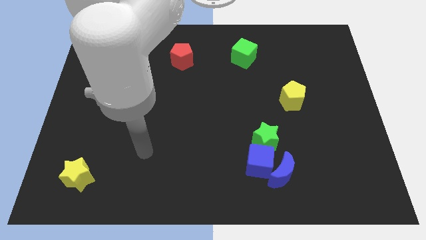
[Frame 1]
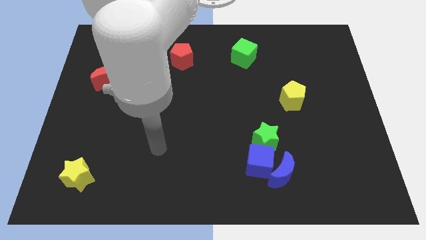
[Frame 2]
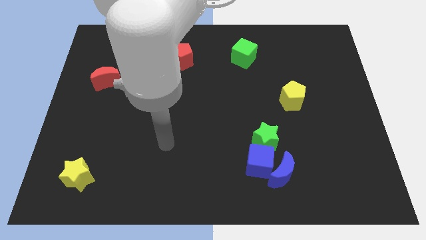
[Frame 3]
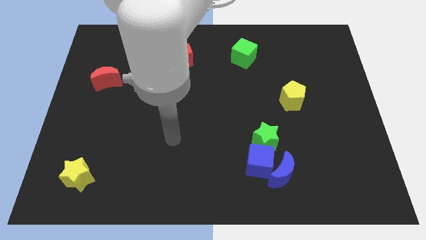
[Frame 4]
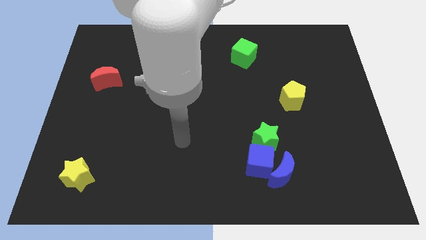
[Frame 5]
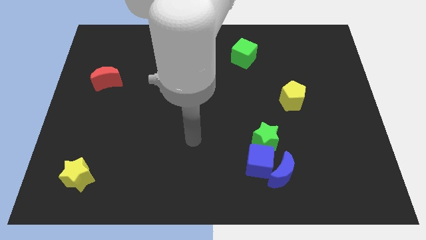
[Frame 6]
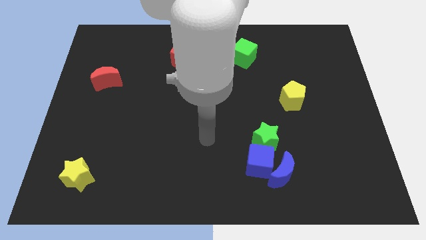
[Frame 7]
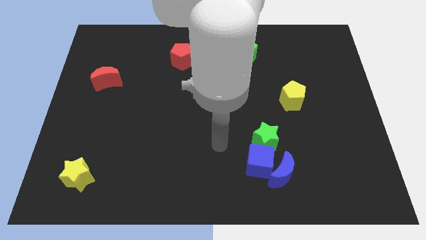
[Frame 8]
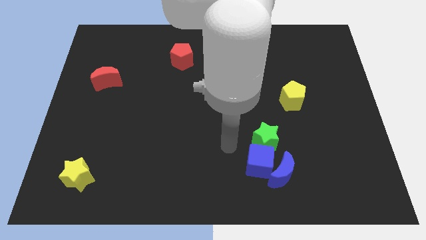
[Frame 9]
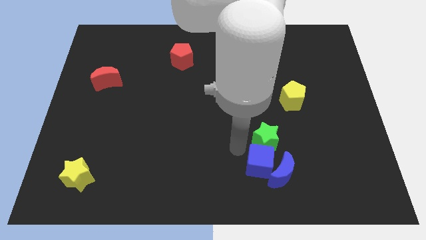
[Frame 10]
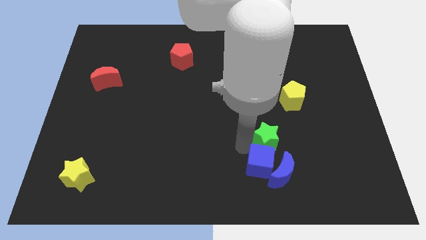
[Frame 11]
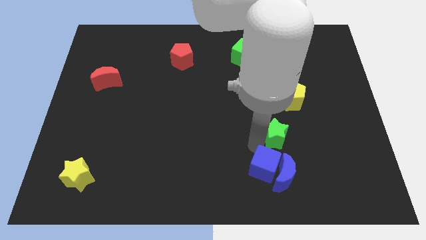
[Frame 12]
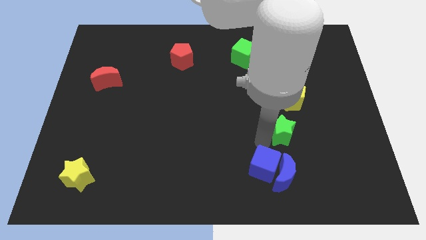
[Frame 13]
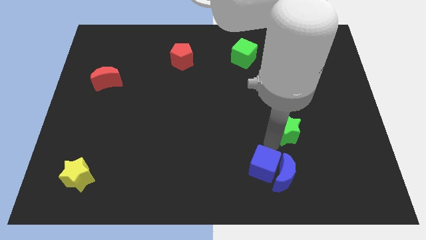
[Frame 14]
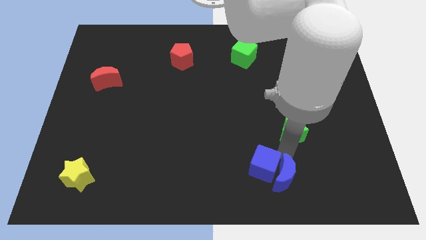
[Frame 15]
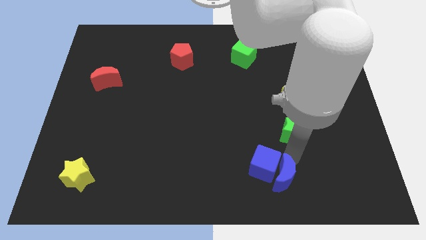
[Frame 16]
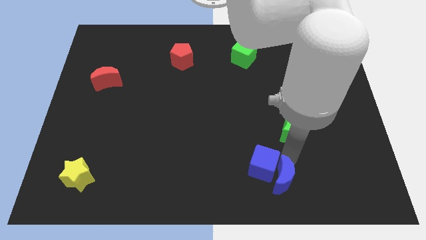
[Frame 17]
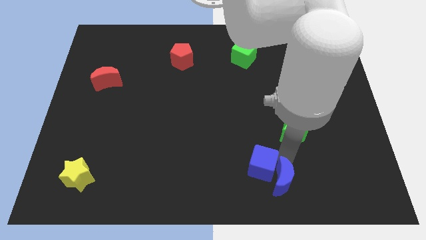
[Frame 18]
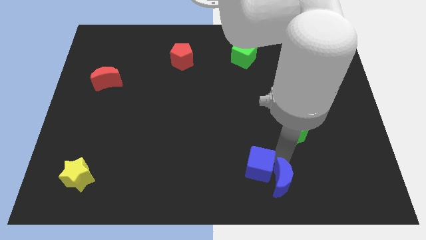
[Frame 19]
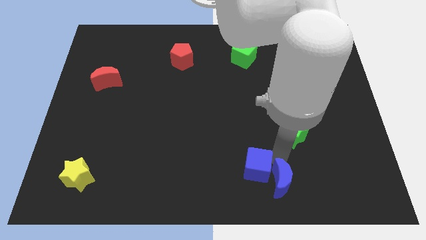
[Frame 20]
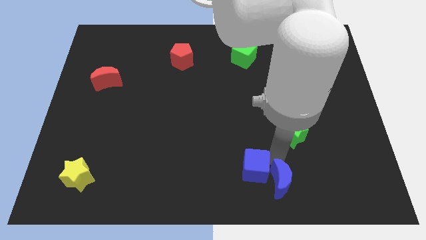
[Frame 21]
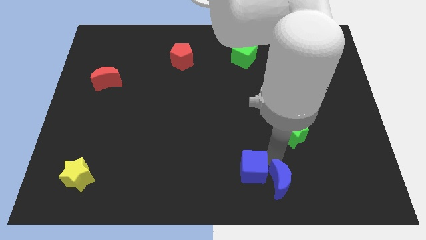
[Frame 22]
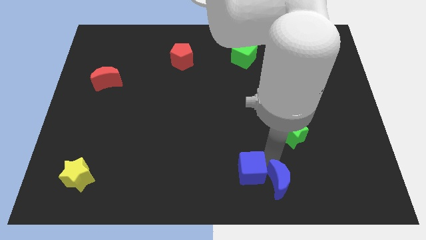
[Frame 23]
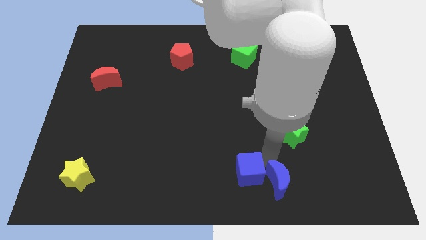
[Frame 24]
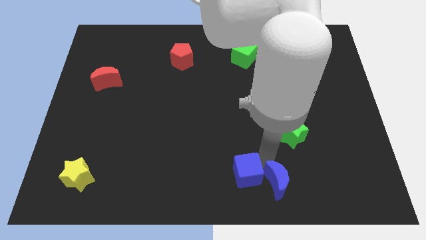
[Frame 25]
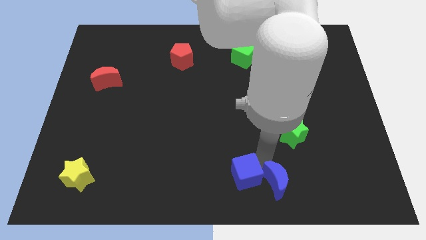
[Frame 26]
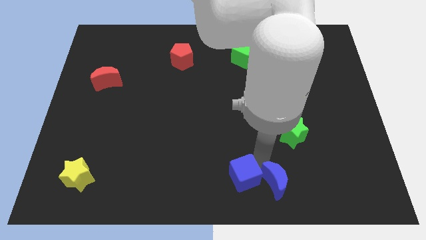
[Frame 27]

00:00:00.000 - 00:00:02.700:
pull the blue cube apart from the blue moon and green star

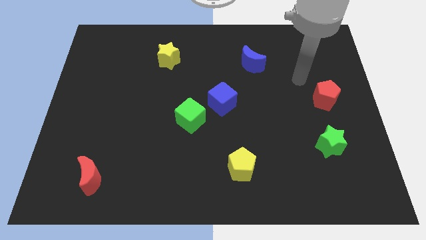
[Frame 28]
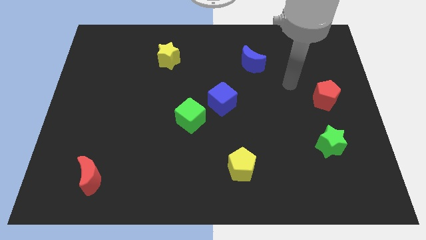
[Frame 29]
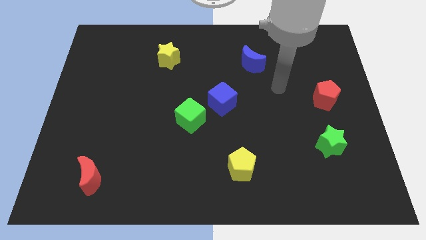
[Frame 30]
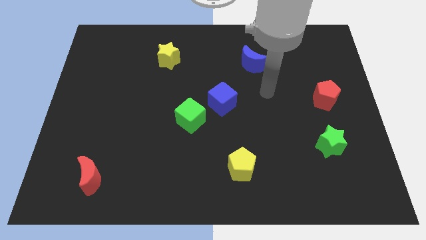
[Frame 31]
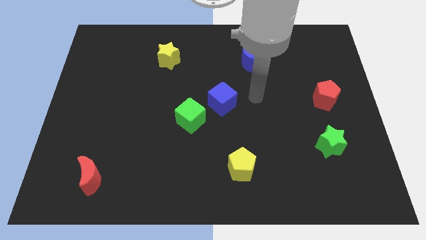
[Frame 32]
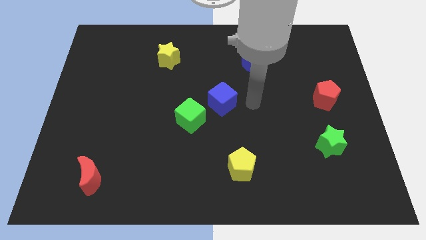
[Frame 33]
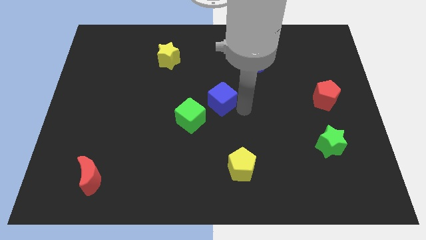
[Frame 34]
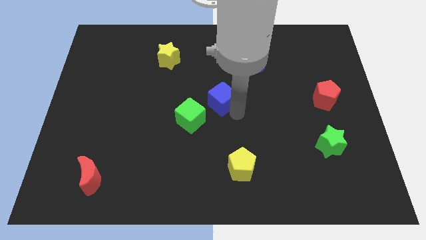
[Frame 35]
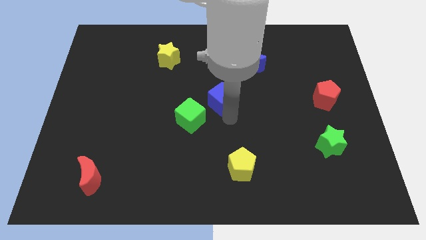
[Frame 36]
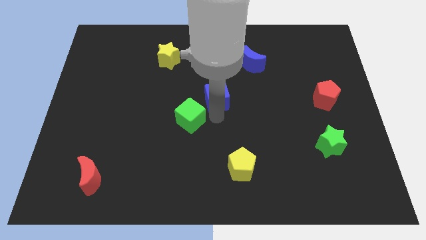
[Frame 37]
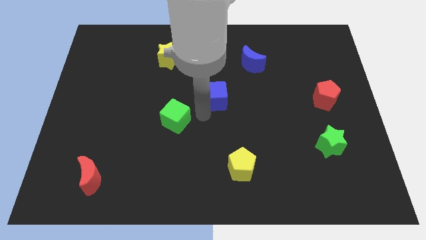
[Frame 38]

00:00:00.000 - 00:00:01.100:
pull the blue cube apart from the green cube

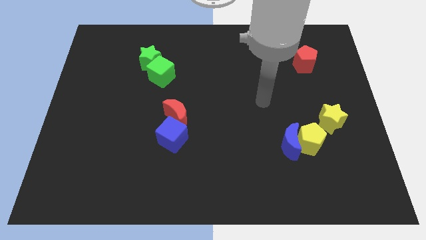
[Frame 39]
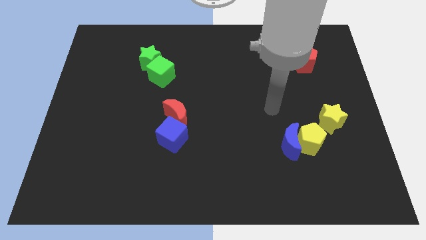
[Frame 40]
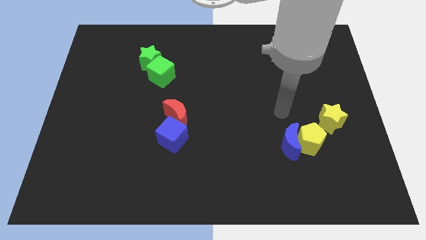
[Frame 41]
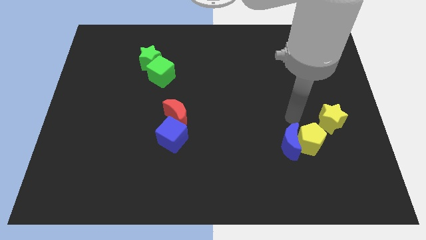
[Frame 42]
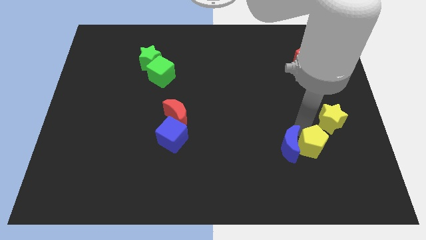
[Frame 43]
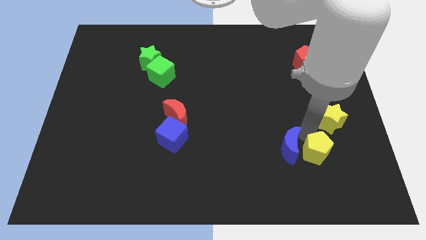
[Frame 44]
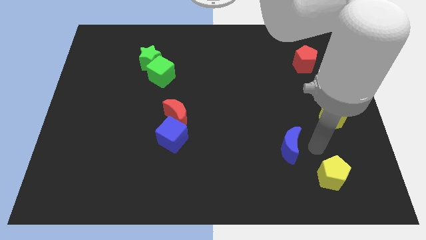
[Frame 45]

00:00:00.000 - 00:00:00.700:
pull the blue moon apart from the yellow pentagon

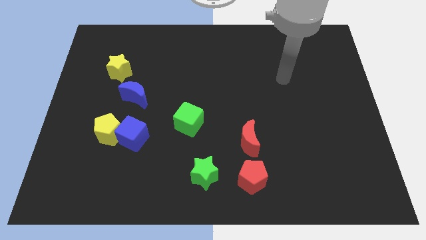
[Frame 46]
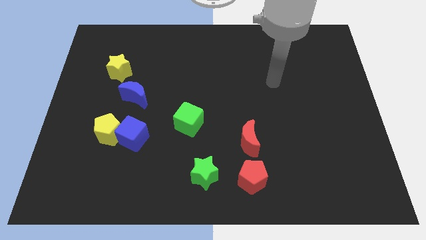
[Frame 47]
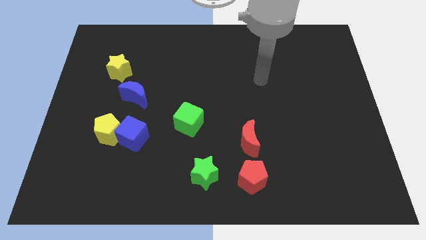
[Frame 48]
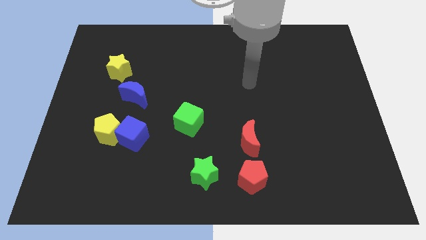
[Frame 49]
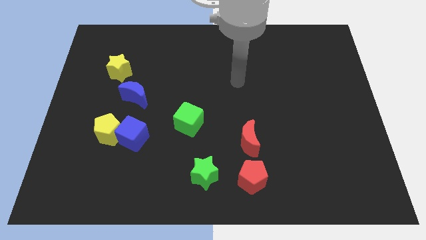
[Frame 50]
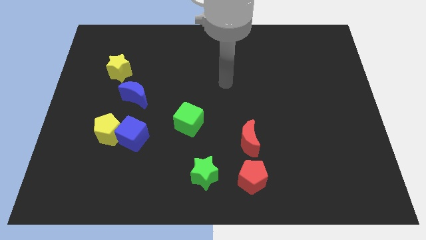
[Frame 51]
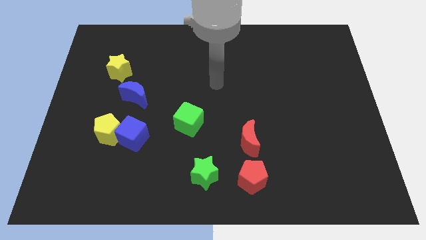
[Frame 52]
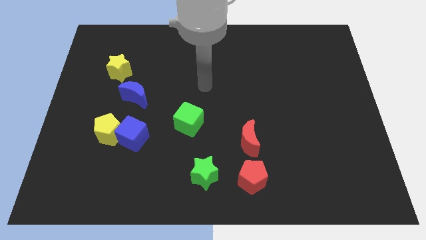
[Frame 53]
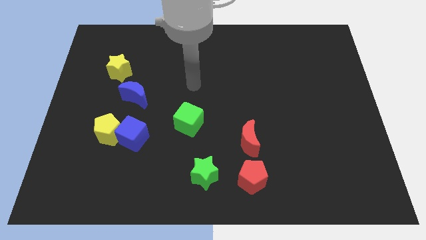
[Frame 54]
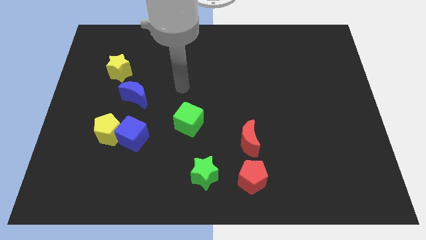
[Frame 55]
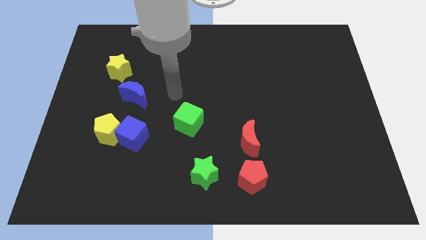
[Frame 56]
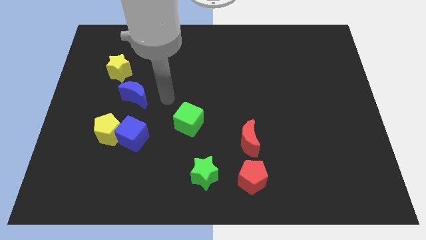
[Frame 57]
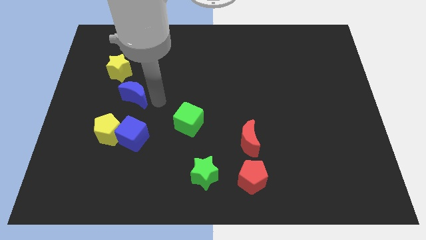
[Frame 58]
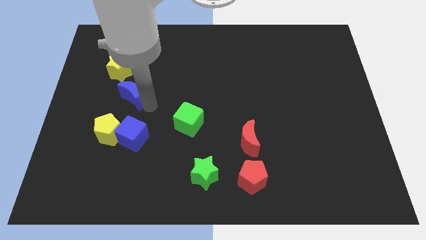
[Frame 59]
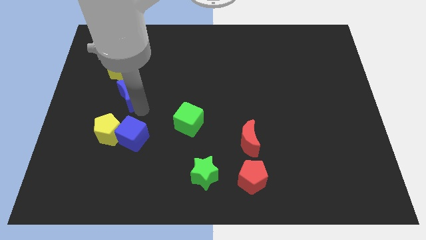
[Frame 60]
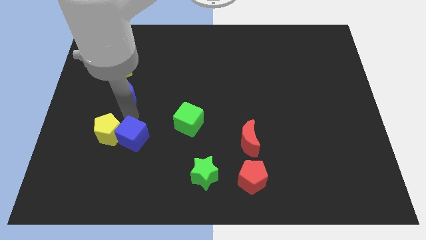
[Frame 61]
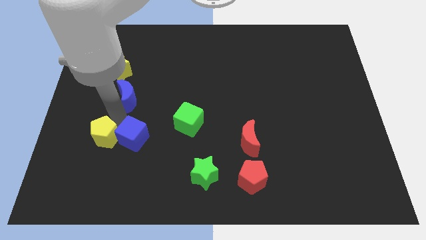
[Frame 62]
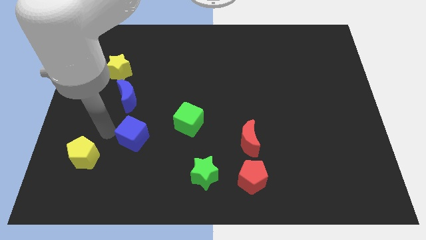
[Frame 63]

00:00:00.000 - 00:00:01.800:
separate the blue cube from the yellow pentagon

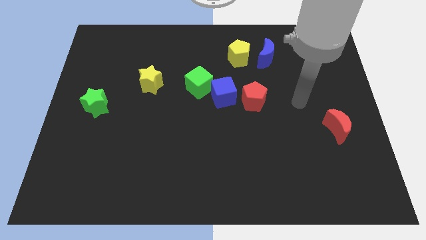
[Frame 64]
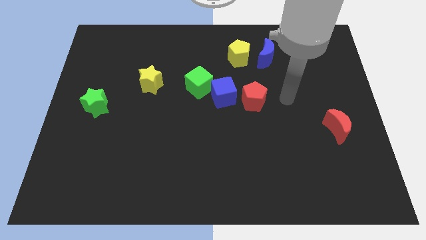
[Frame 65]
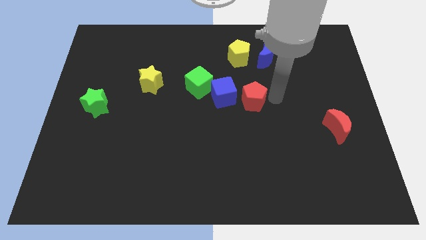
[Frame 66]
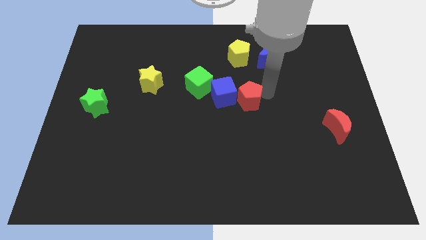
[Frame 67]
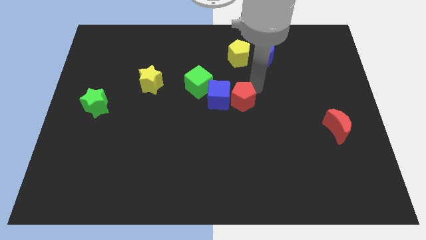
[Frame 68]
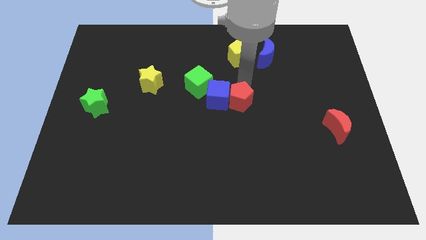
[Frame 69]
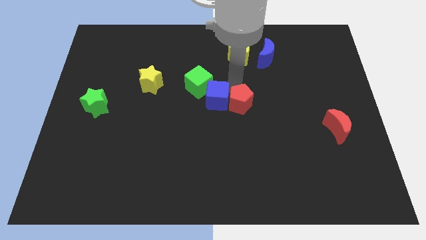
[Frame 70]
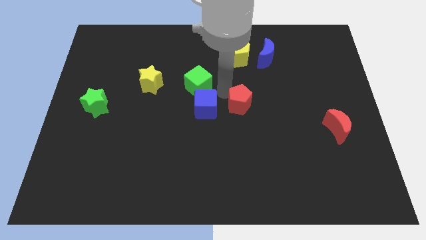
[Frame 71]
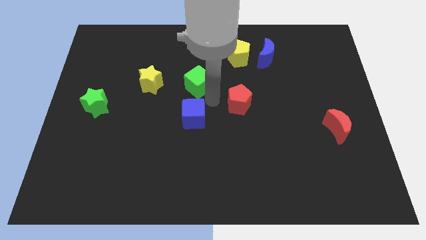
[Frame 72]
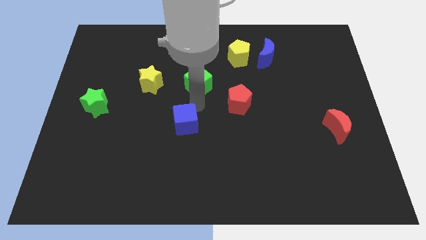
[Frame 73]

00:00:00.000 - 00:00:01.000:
separate the green cube from the blue cube

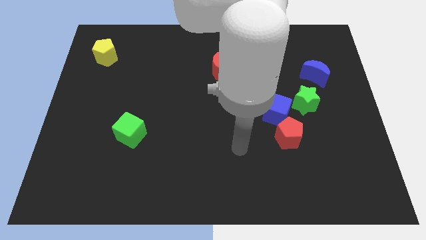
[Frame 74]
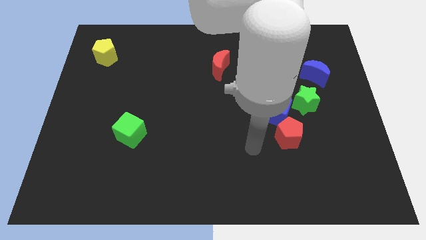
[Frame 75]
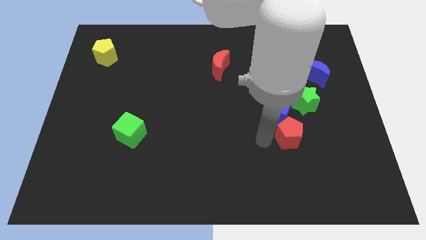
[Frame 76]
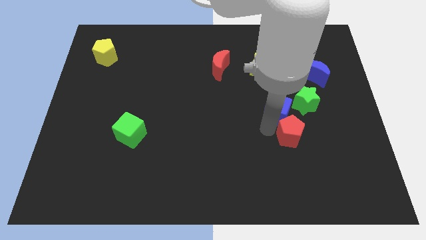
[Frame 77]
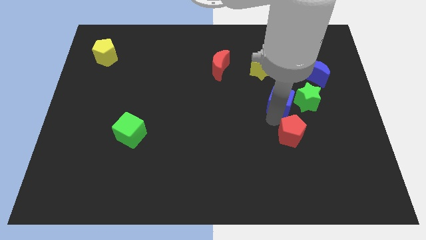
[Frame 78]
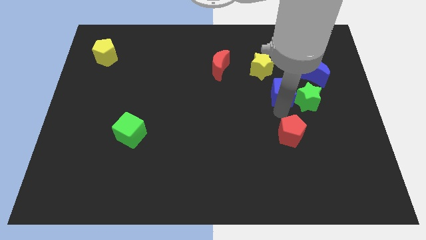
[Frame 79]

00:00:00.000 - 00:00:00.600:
pull the red pentagon apart from the blue cube

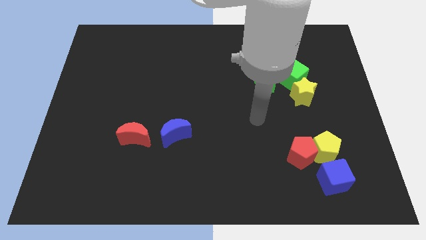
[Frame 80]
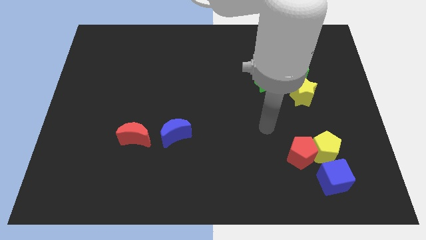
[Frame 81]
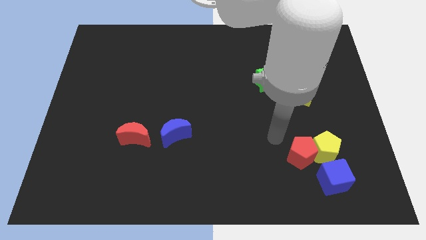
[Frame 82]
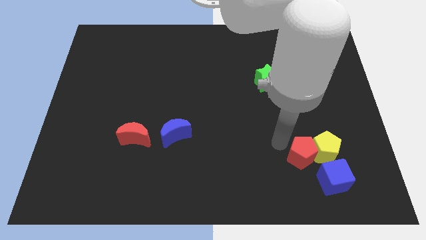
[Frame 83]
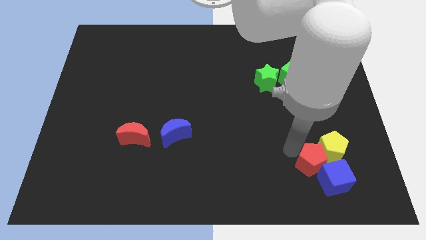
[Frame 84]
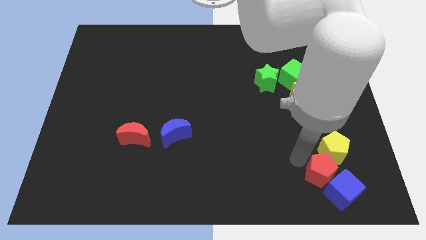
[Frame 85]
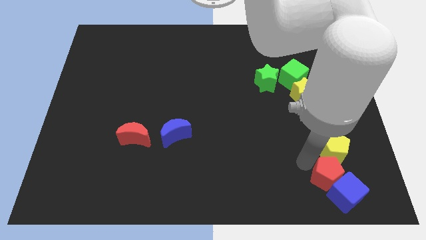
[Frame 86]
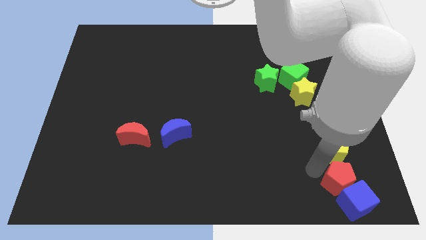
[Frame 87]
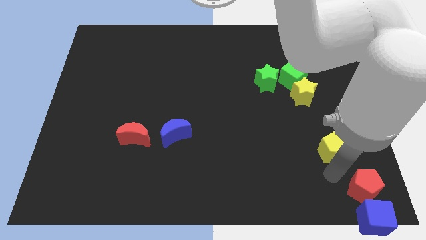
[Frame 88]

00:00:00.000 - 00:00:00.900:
move the yellow pentagon away from the red pentagon and blue cube

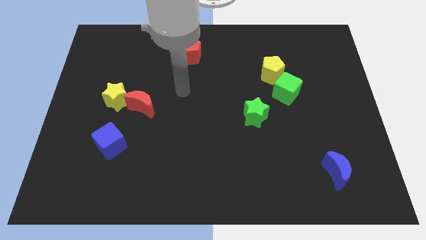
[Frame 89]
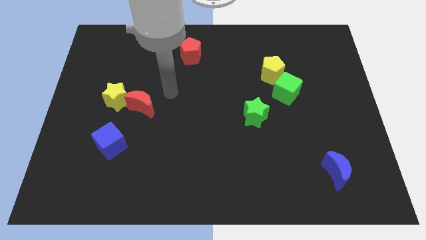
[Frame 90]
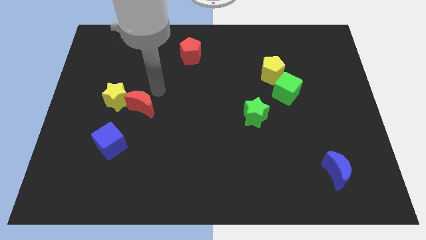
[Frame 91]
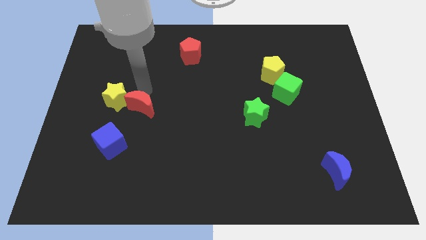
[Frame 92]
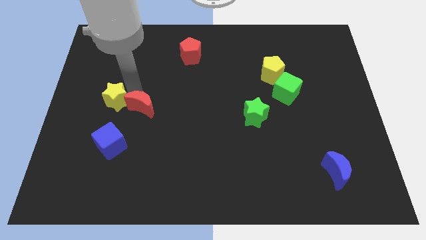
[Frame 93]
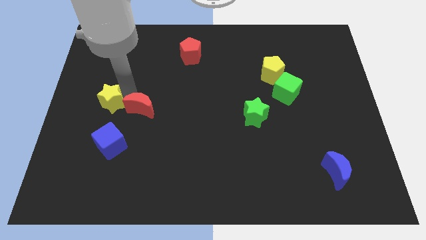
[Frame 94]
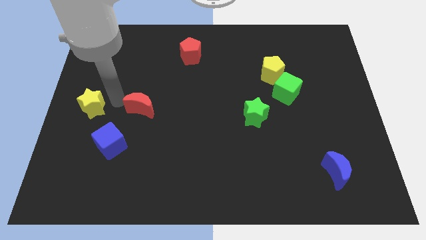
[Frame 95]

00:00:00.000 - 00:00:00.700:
pull the red moon apart from the yellow star
